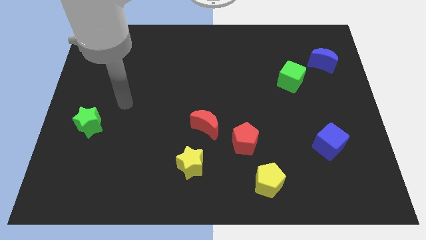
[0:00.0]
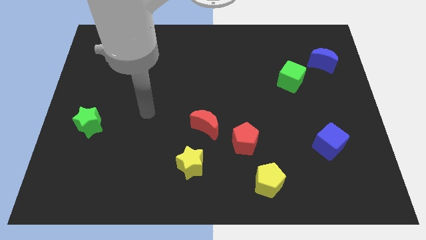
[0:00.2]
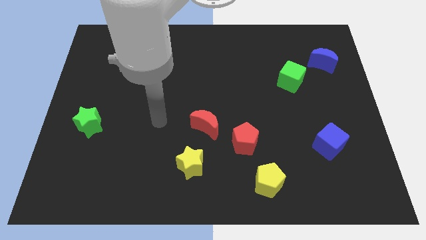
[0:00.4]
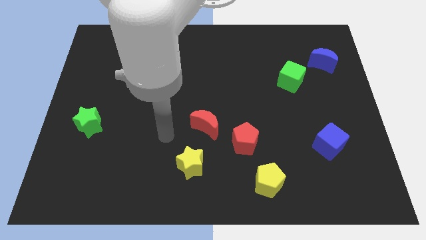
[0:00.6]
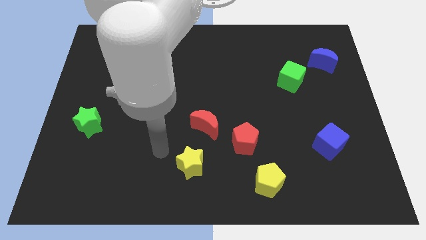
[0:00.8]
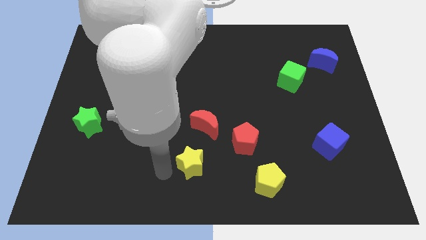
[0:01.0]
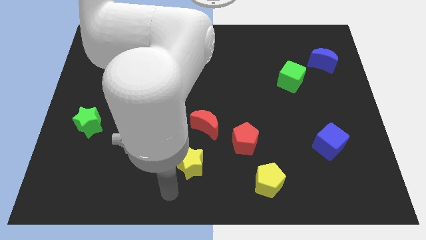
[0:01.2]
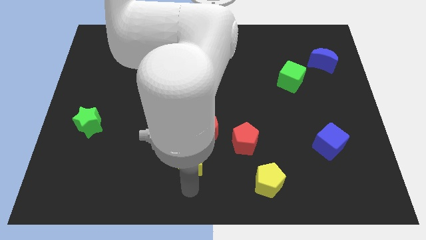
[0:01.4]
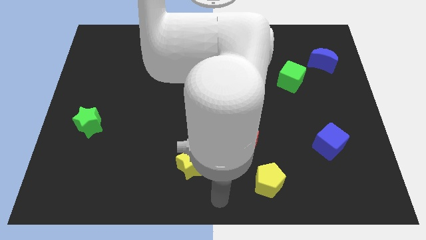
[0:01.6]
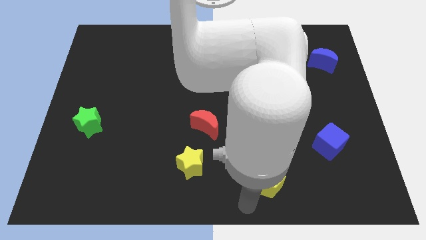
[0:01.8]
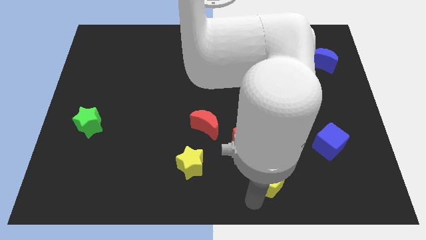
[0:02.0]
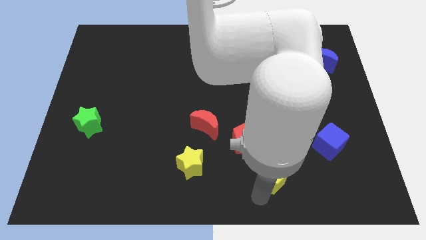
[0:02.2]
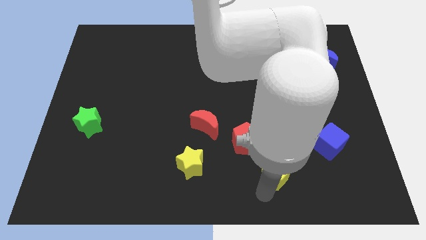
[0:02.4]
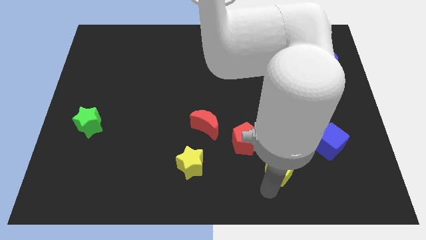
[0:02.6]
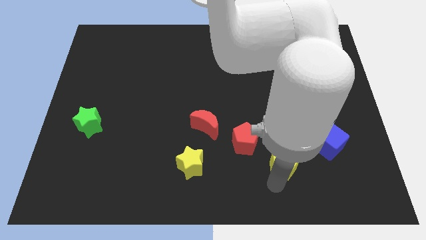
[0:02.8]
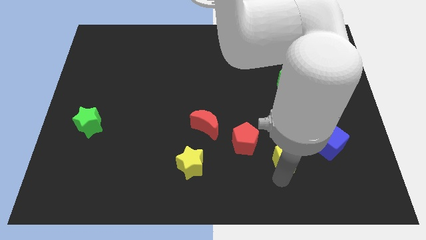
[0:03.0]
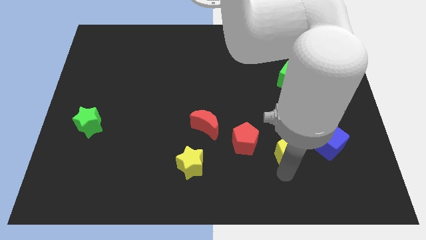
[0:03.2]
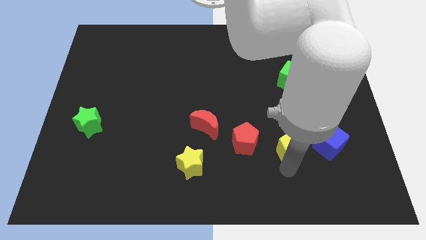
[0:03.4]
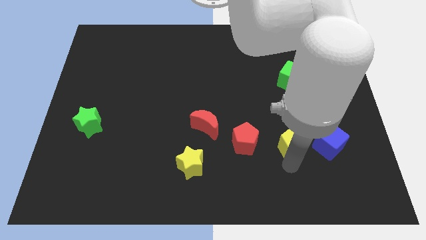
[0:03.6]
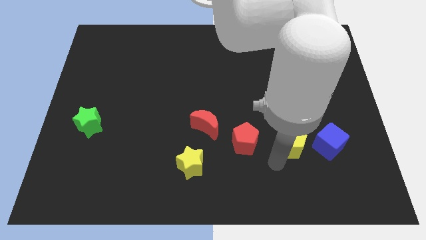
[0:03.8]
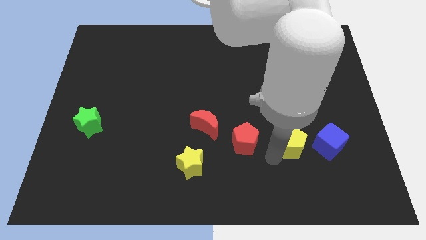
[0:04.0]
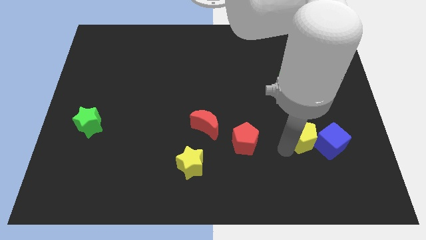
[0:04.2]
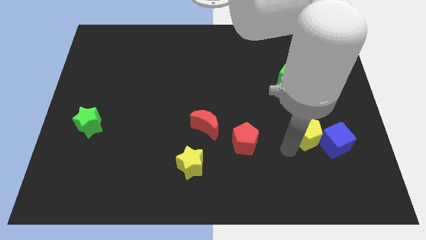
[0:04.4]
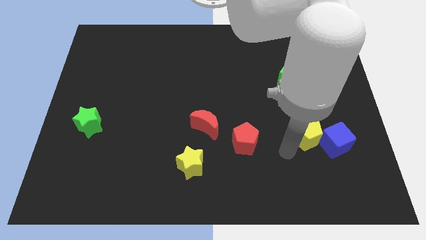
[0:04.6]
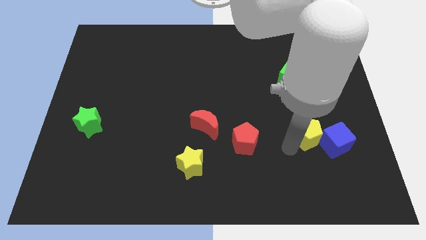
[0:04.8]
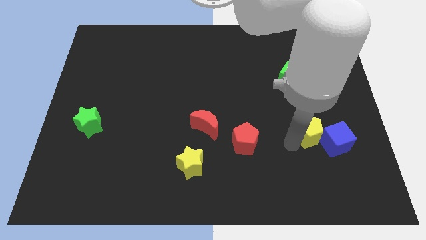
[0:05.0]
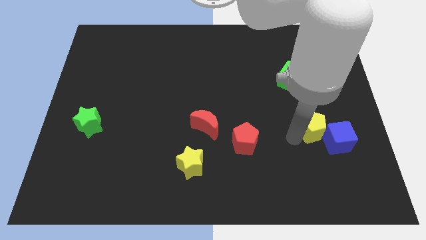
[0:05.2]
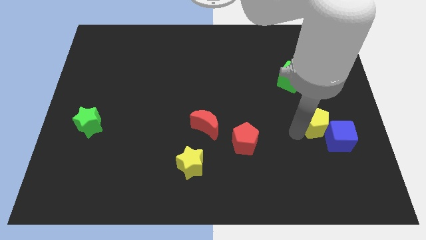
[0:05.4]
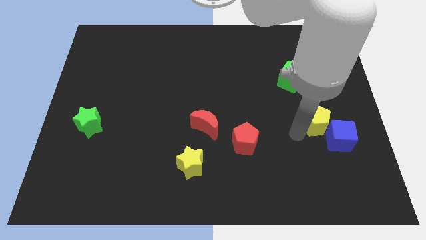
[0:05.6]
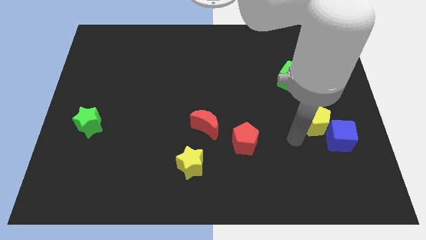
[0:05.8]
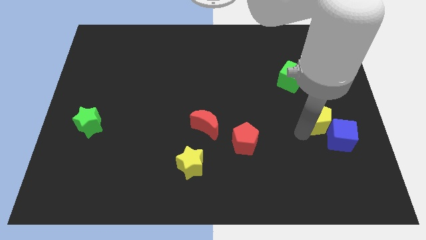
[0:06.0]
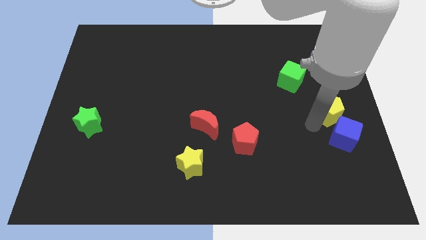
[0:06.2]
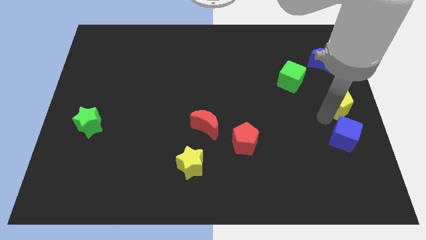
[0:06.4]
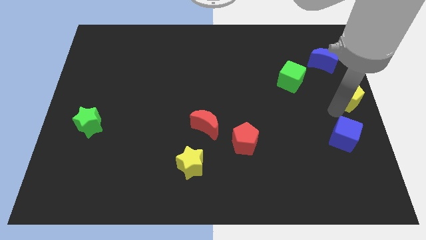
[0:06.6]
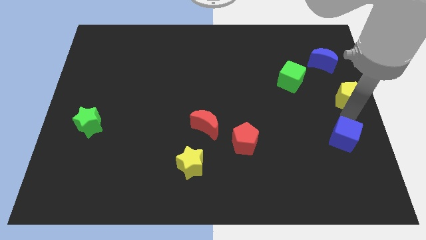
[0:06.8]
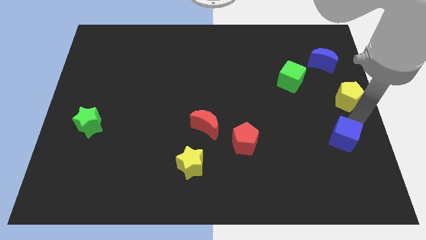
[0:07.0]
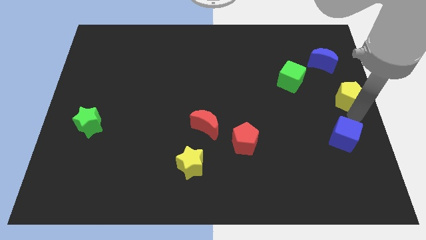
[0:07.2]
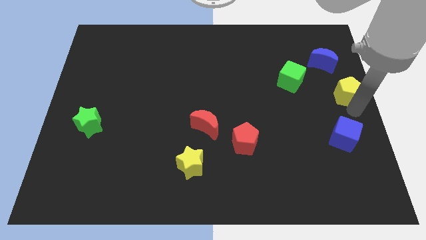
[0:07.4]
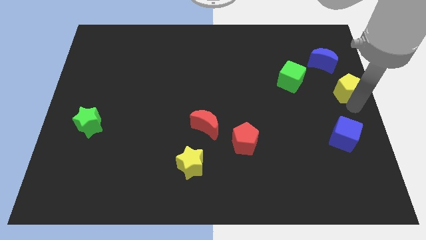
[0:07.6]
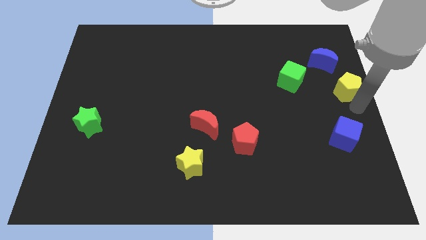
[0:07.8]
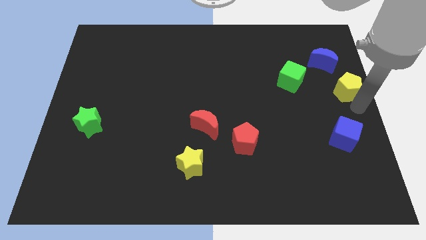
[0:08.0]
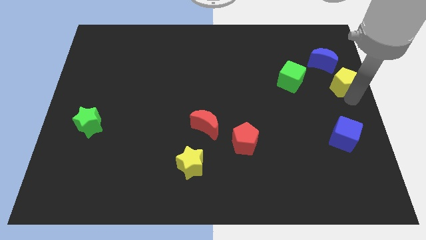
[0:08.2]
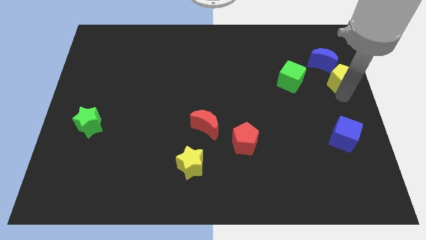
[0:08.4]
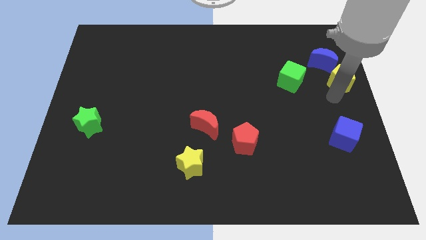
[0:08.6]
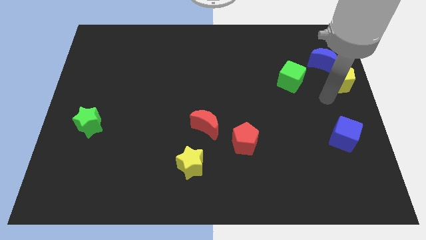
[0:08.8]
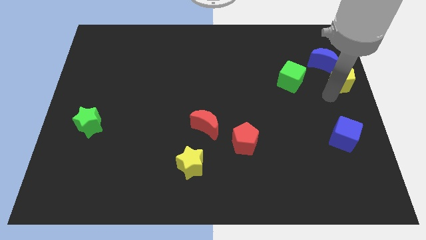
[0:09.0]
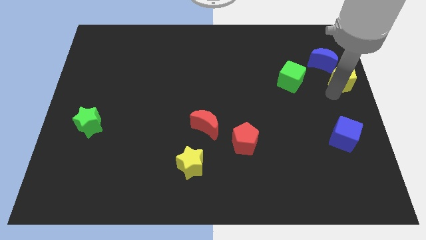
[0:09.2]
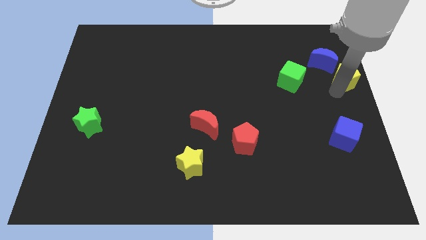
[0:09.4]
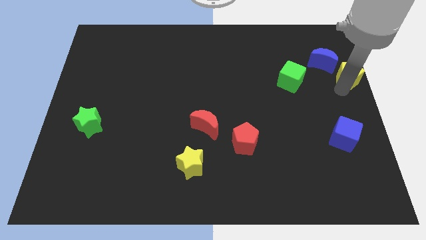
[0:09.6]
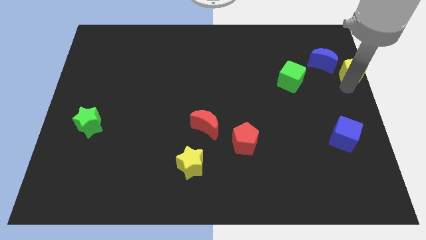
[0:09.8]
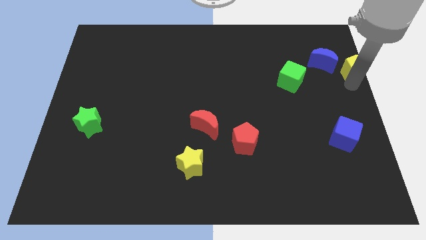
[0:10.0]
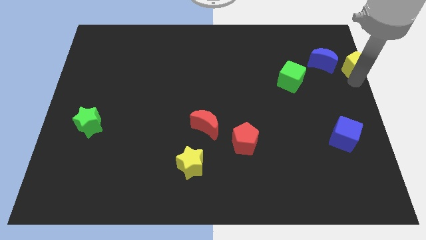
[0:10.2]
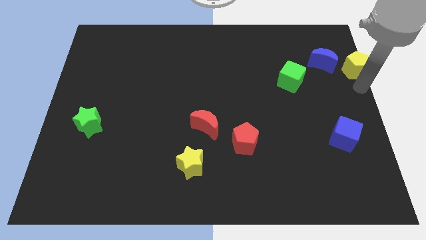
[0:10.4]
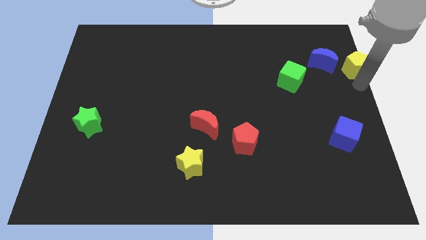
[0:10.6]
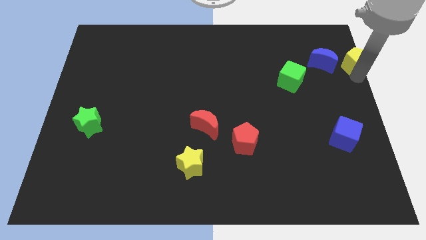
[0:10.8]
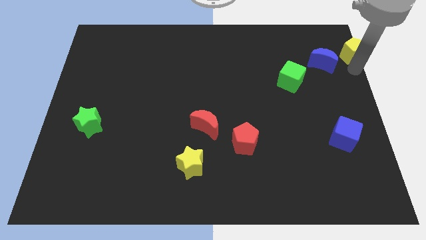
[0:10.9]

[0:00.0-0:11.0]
push the yellow pentagon to the top right corner

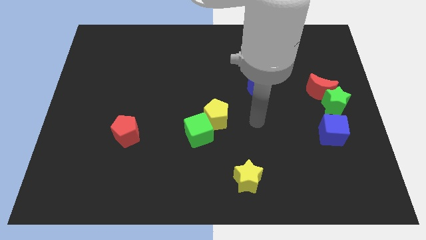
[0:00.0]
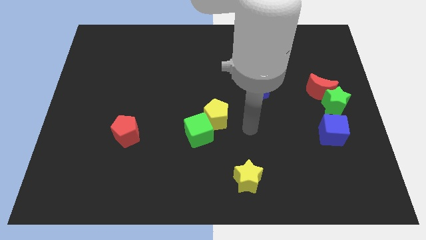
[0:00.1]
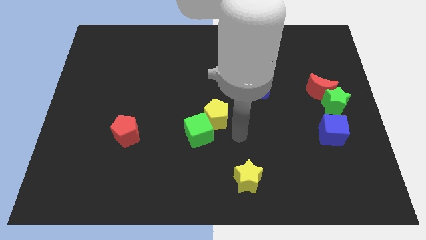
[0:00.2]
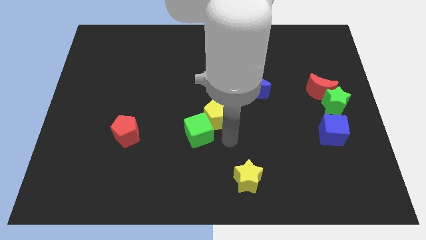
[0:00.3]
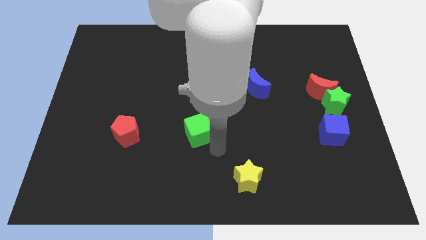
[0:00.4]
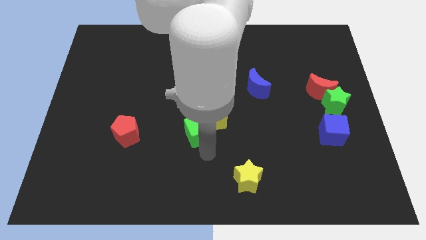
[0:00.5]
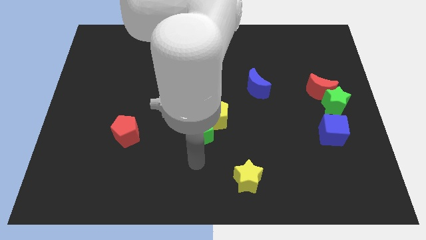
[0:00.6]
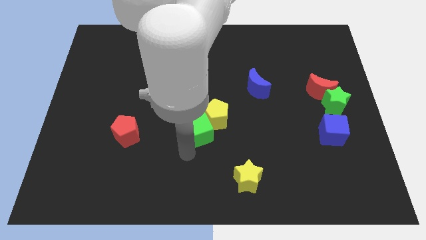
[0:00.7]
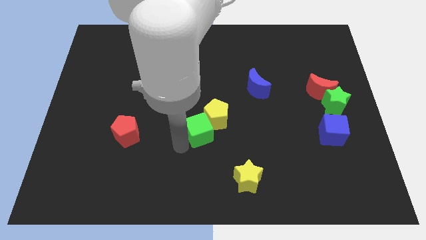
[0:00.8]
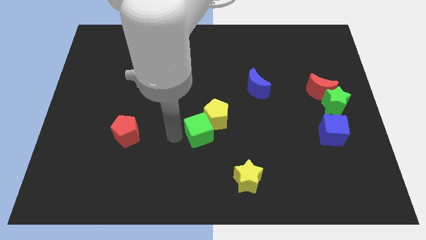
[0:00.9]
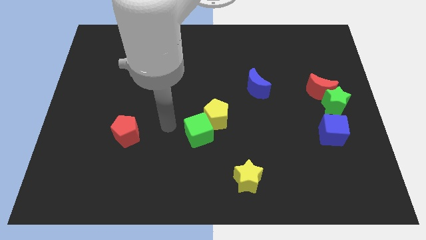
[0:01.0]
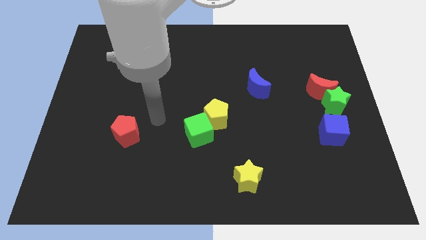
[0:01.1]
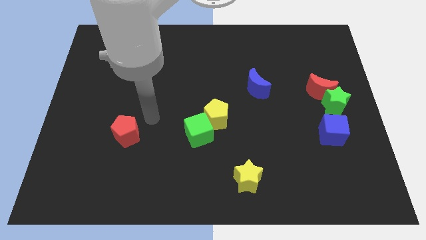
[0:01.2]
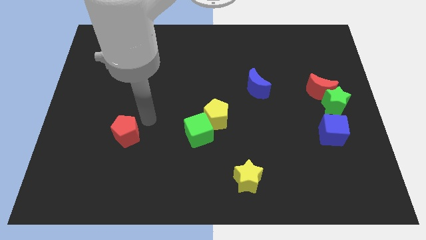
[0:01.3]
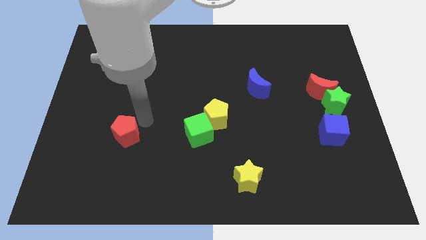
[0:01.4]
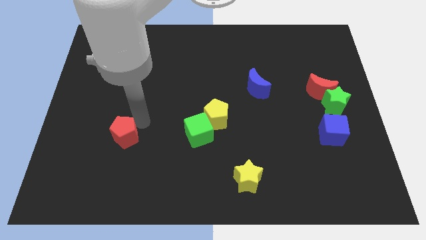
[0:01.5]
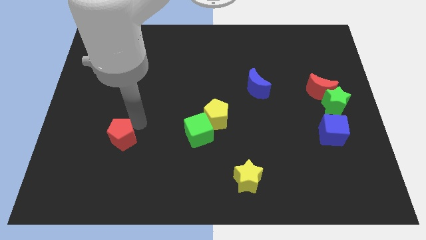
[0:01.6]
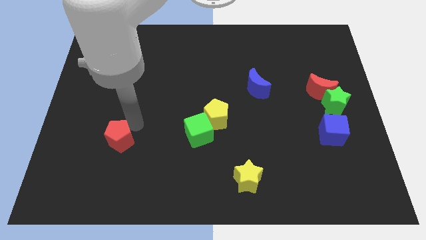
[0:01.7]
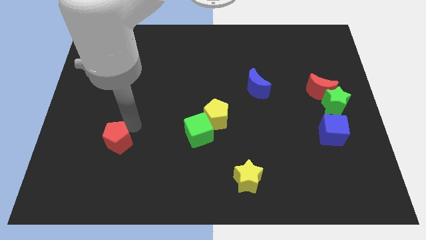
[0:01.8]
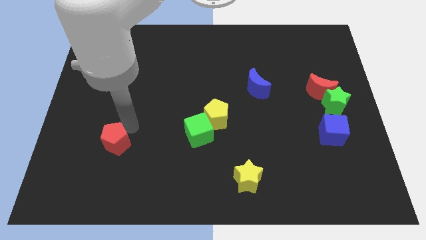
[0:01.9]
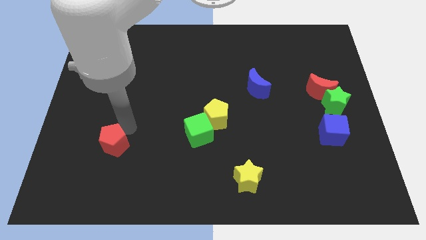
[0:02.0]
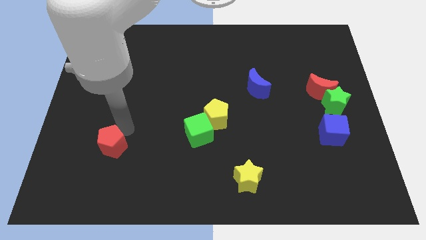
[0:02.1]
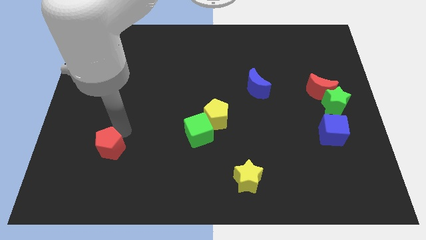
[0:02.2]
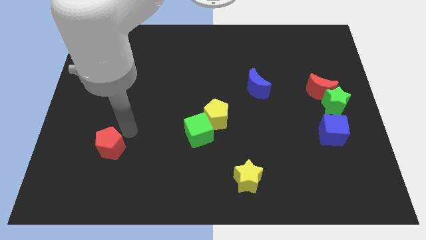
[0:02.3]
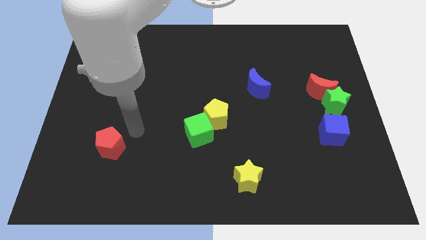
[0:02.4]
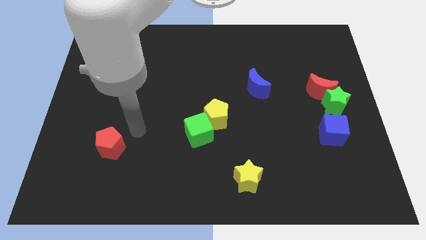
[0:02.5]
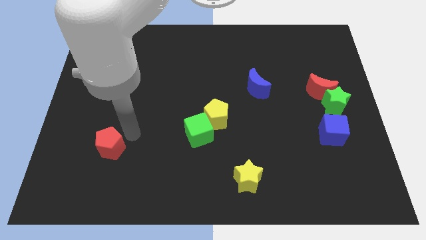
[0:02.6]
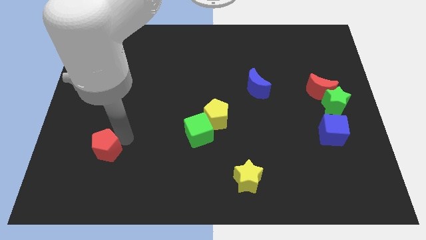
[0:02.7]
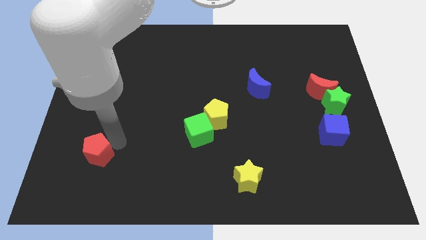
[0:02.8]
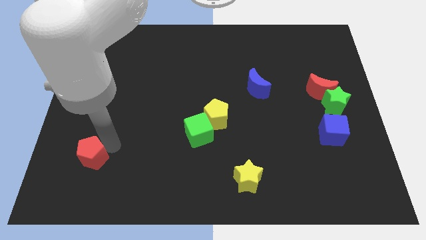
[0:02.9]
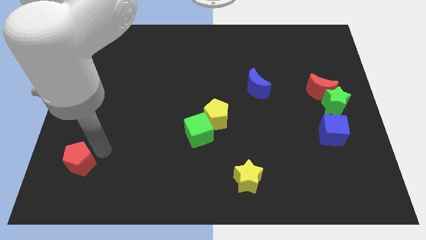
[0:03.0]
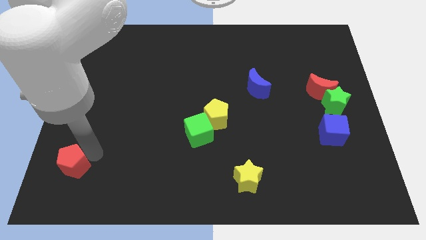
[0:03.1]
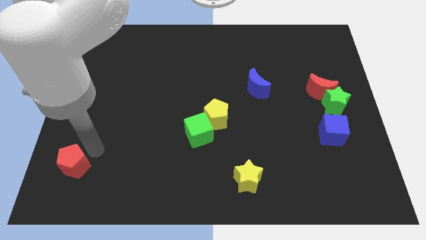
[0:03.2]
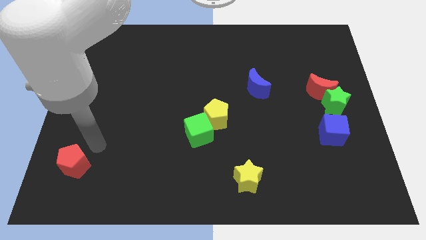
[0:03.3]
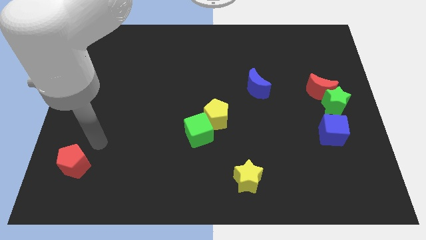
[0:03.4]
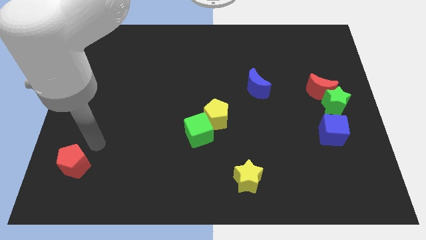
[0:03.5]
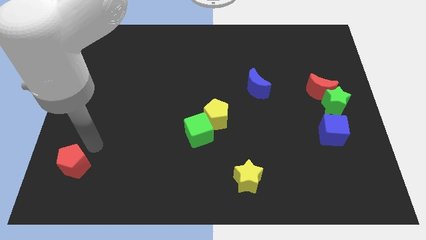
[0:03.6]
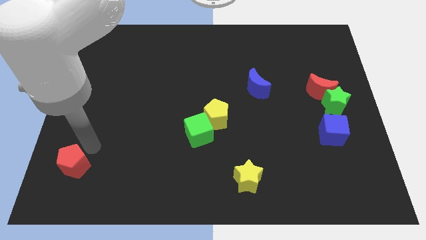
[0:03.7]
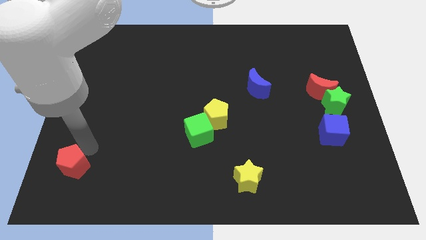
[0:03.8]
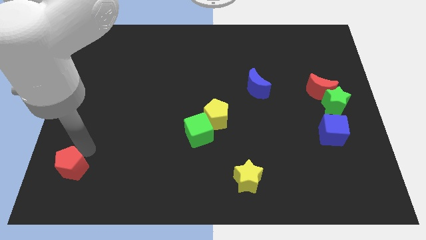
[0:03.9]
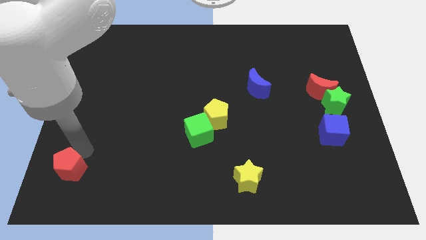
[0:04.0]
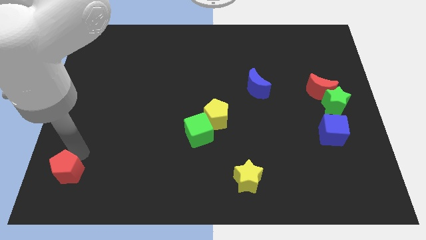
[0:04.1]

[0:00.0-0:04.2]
move the red pentagon to the bottom left corner
